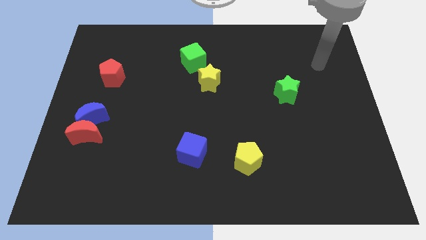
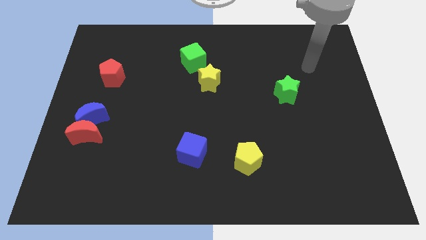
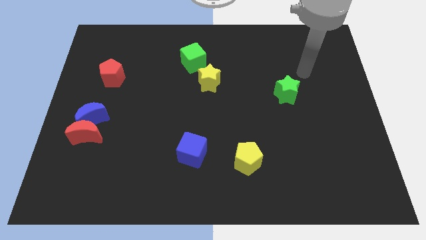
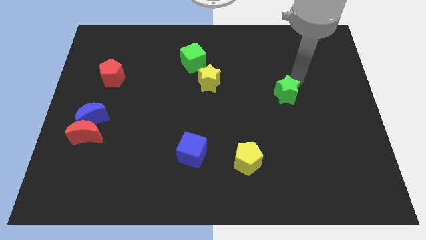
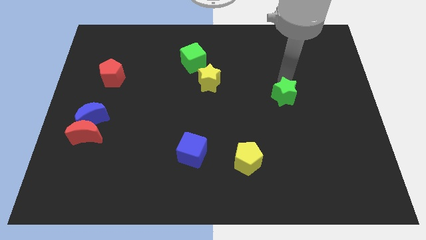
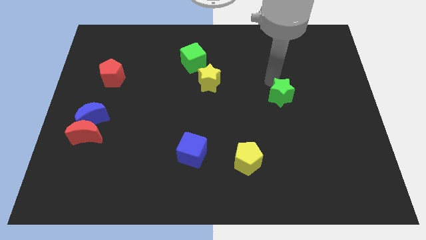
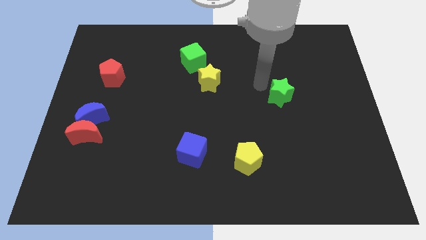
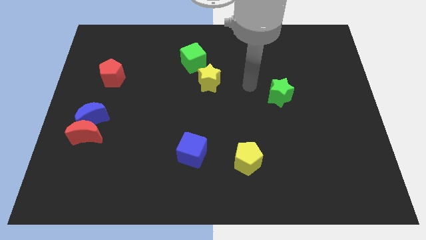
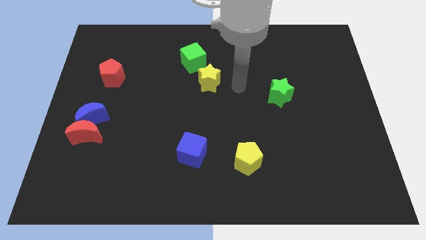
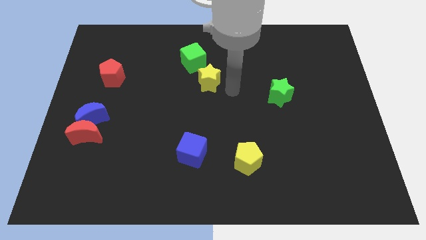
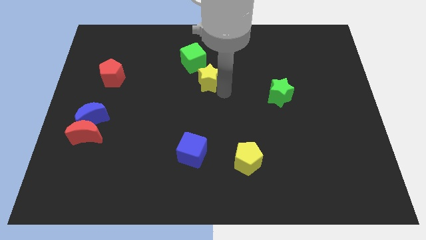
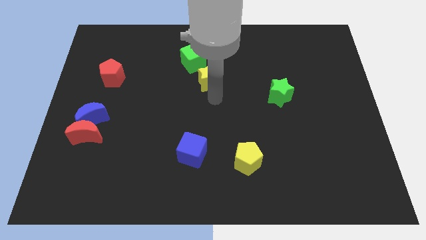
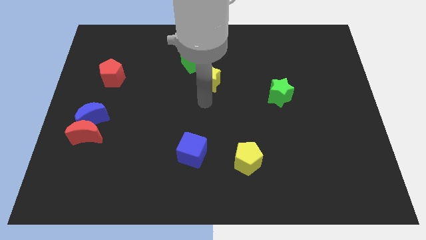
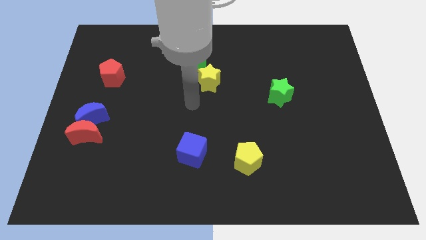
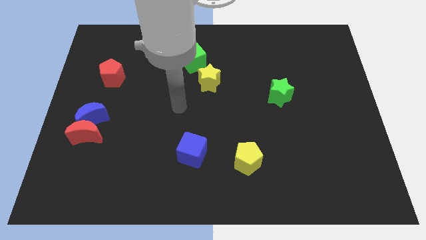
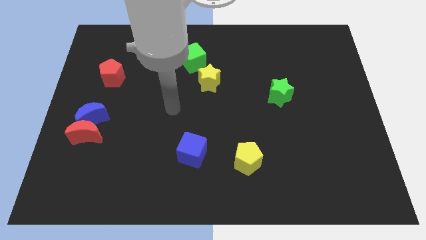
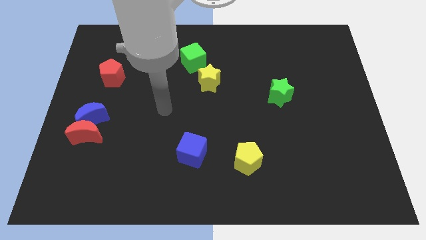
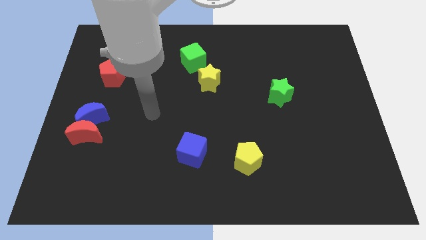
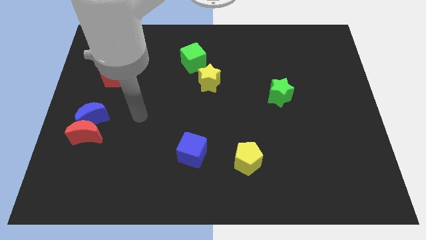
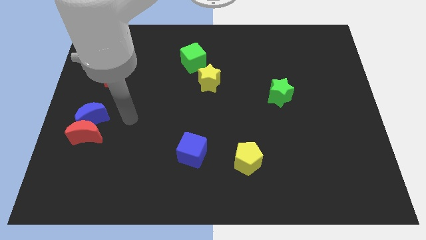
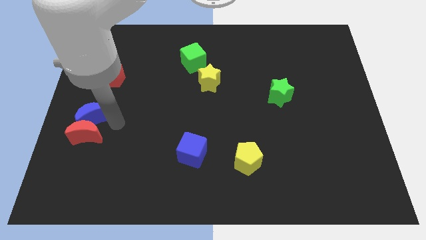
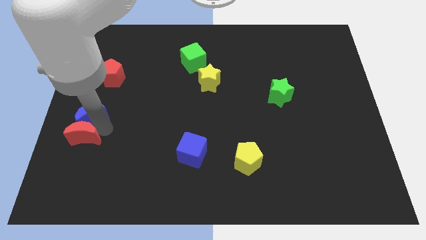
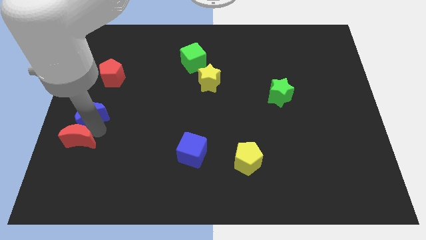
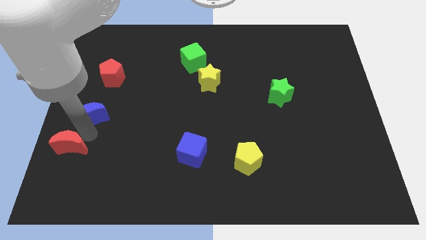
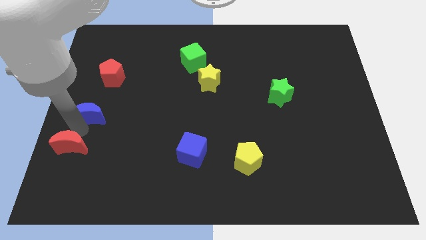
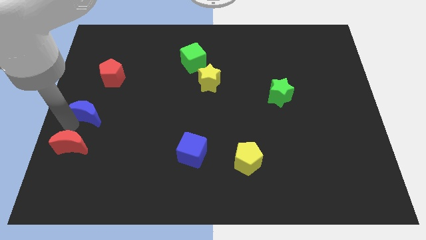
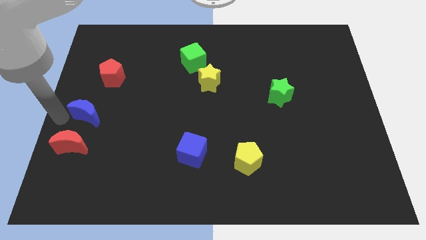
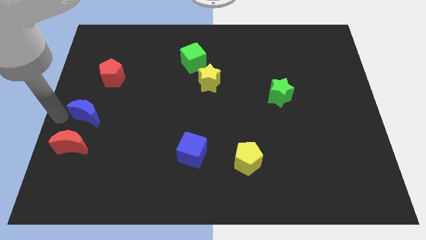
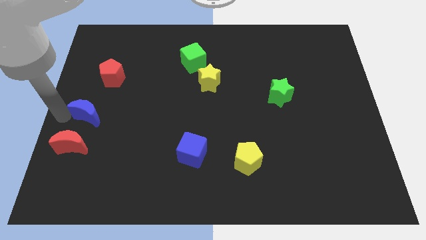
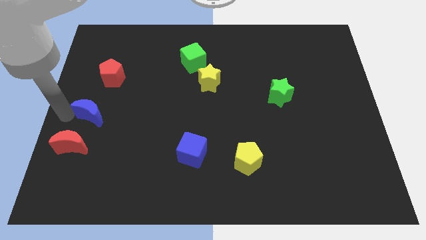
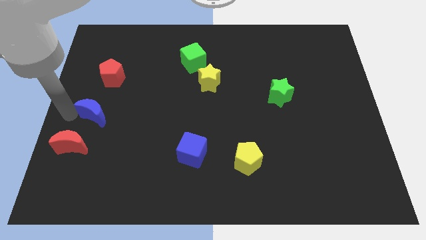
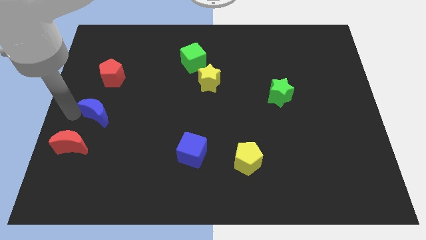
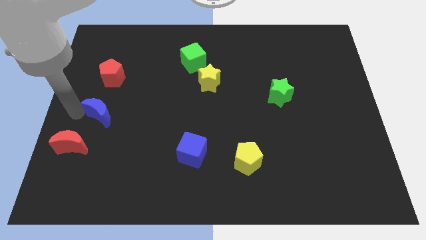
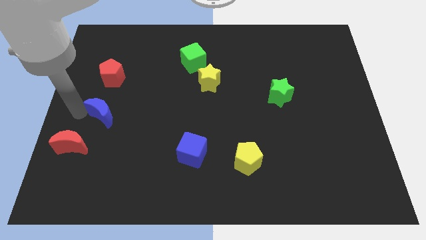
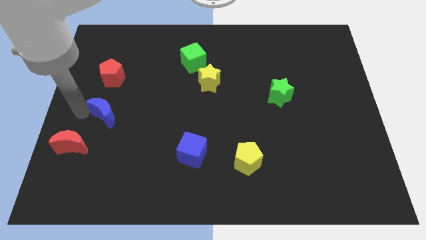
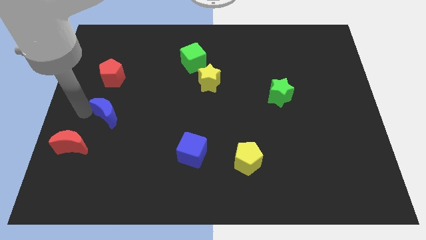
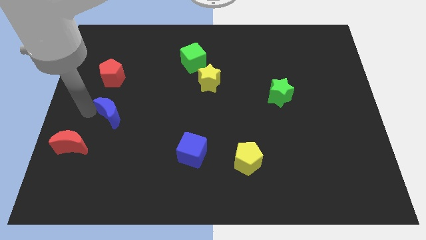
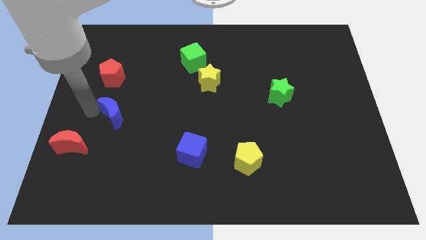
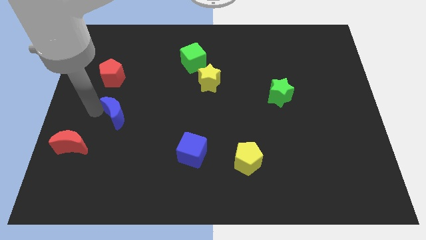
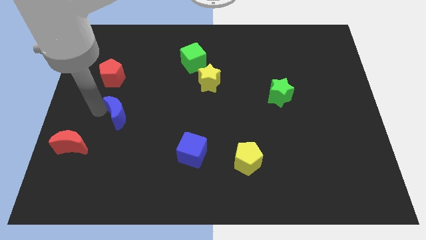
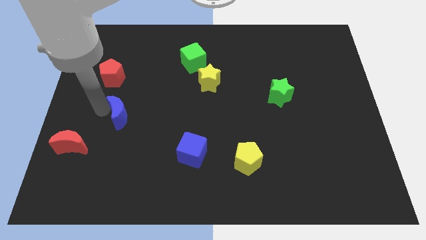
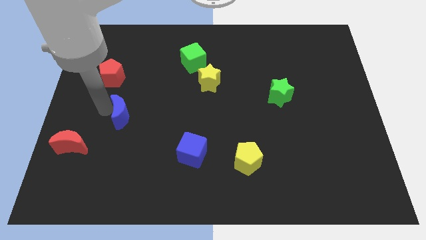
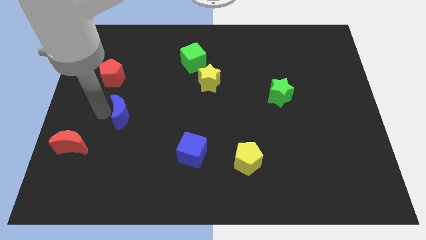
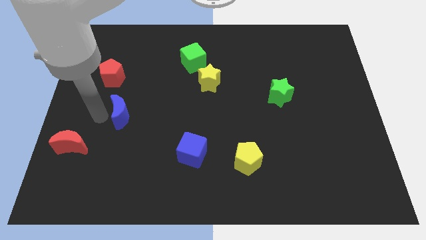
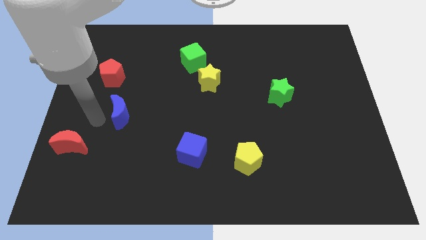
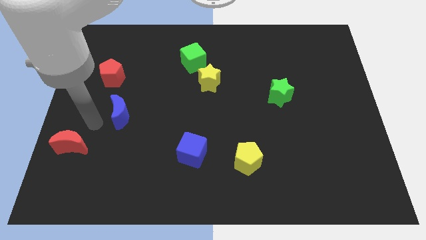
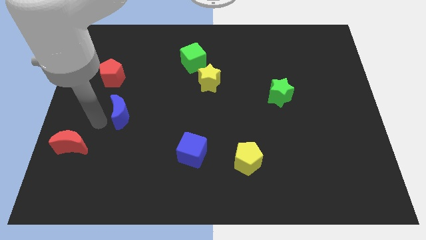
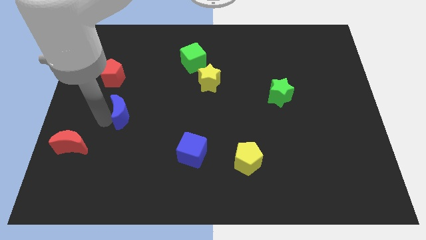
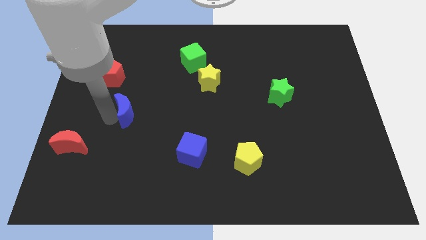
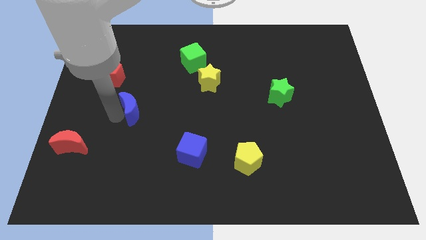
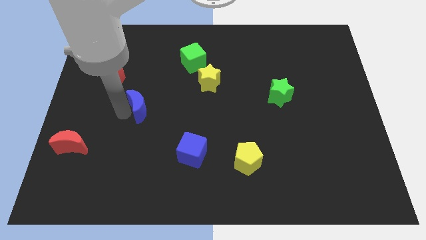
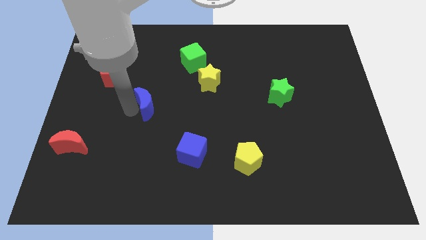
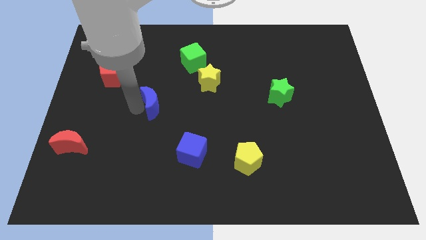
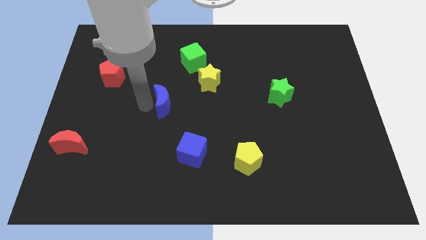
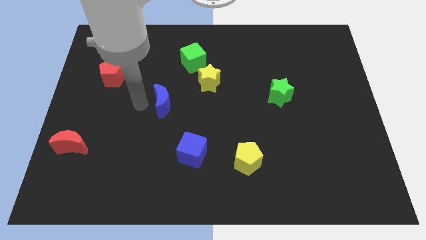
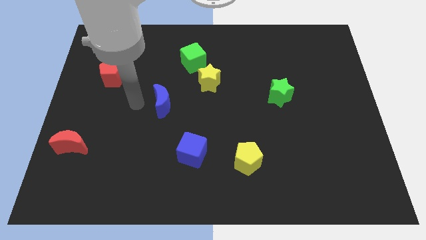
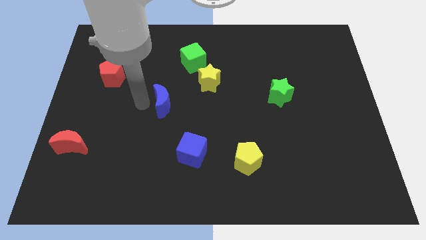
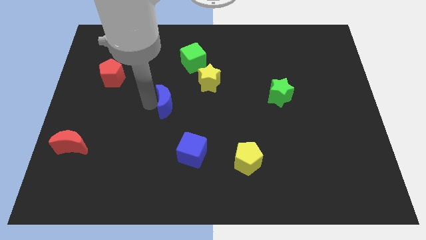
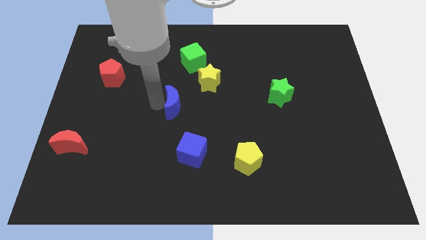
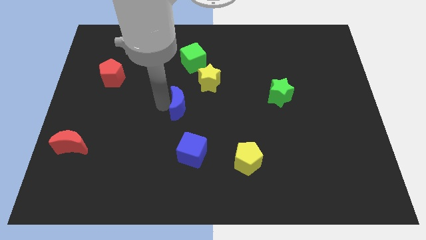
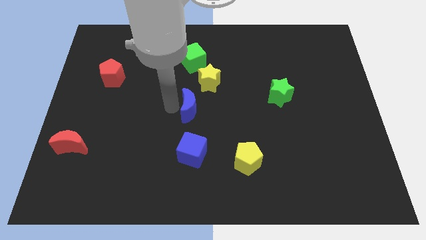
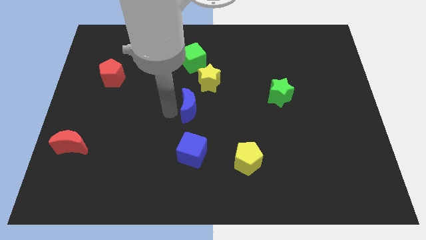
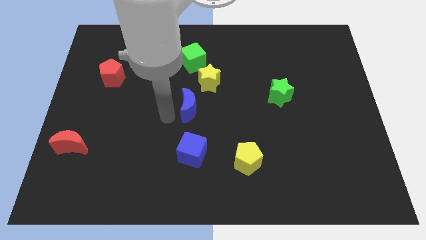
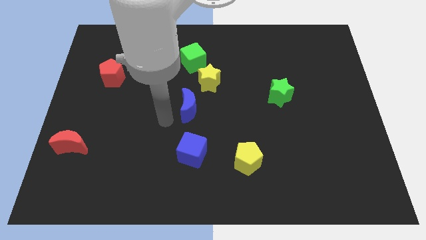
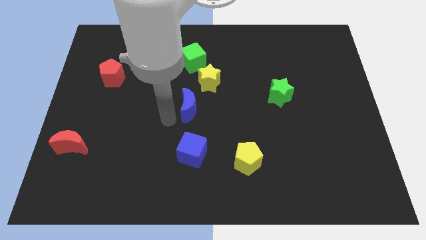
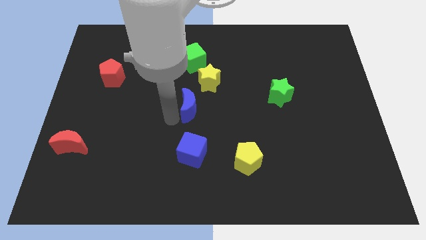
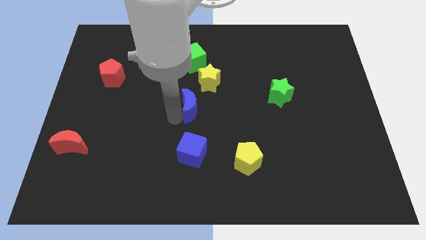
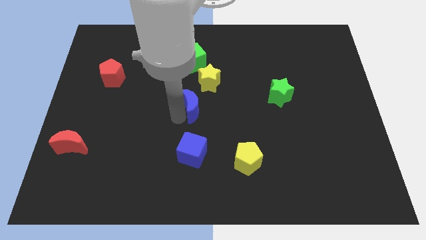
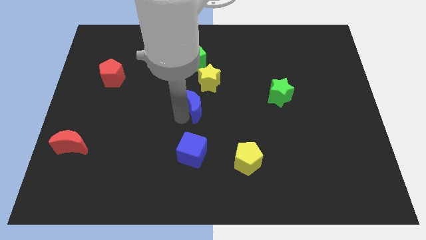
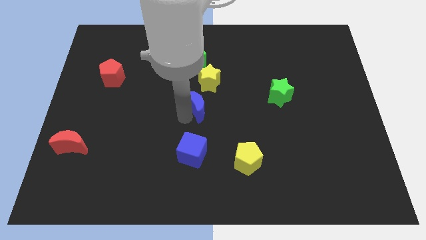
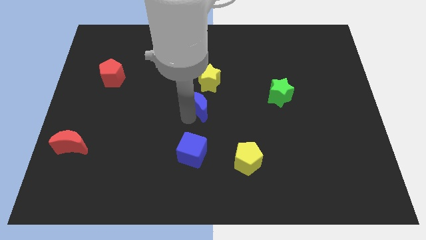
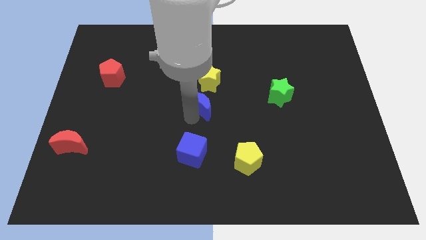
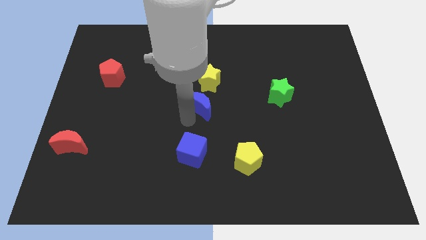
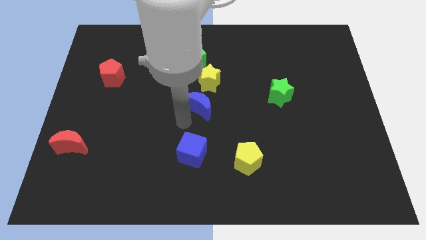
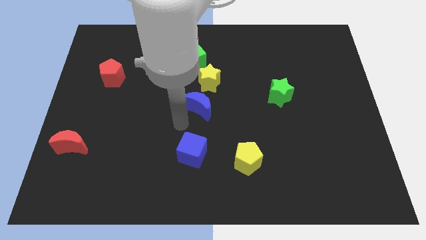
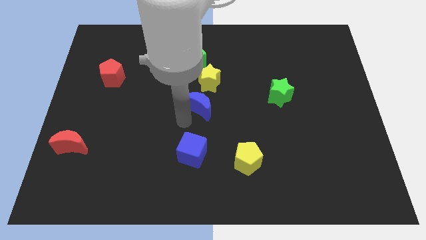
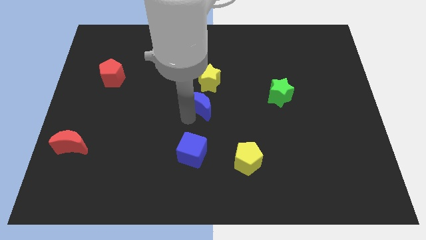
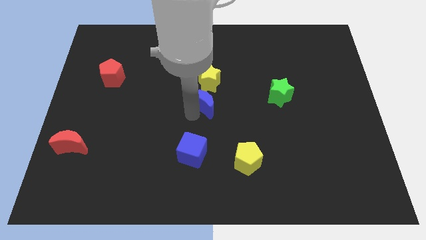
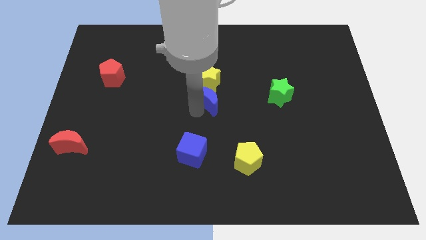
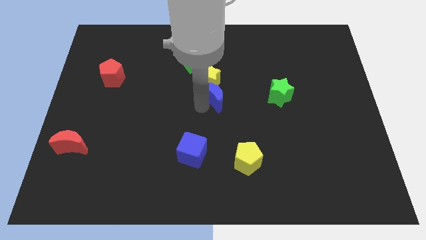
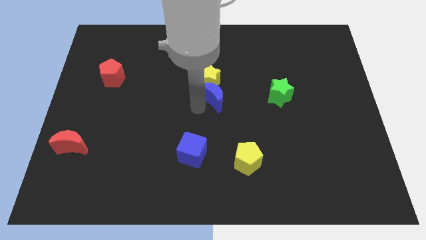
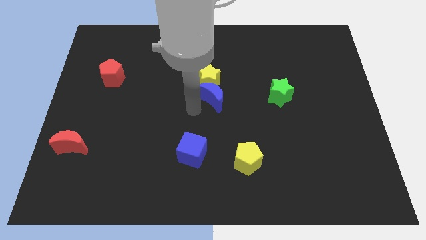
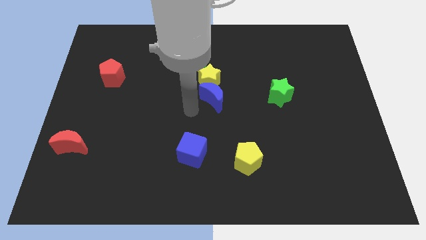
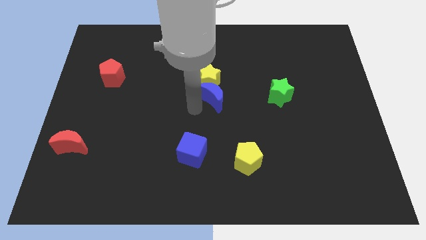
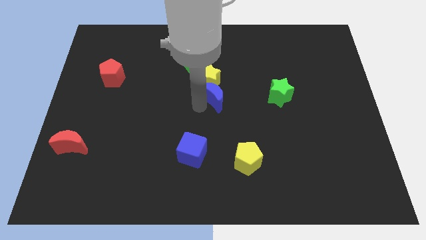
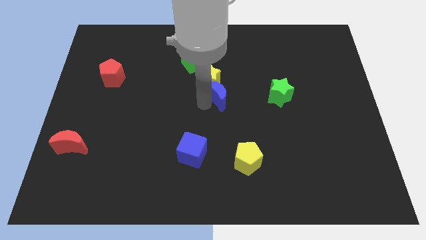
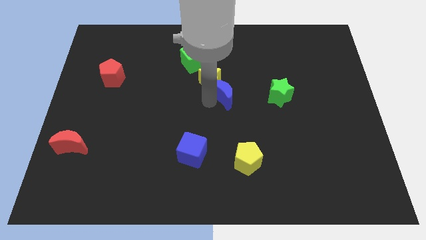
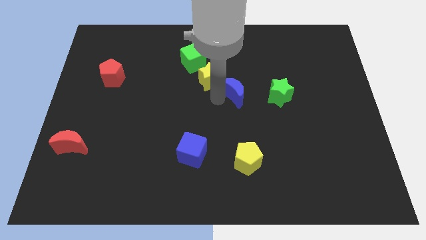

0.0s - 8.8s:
push the blue moon just right of the yellow star
